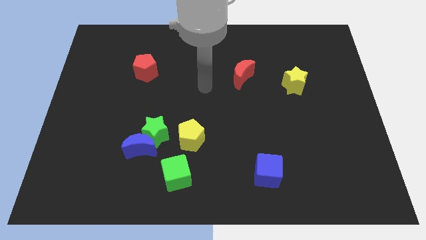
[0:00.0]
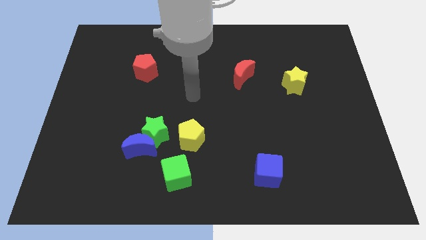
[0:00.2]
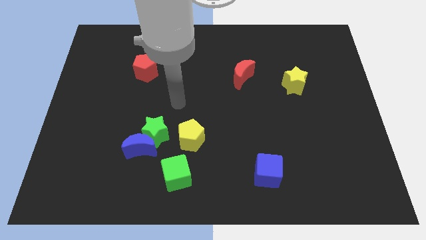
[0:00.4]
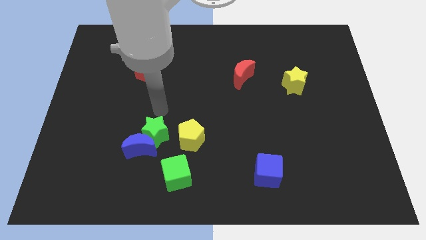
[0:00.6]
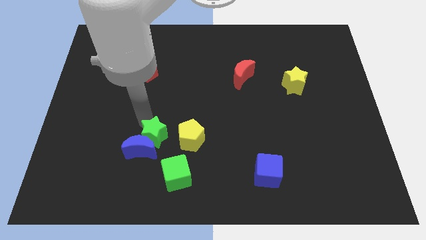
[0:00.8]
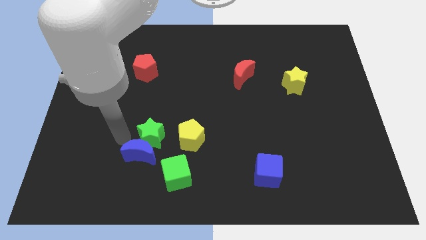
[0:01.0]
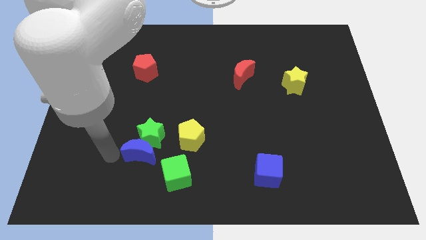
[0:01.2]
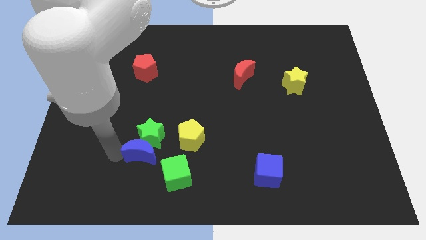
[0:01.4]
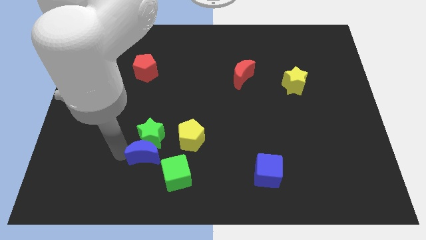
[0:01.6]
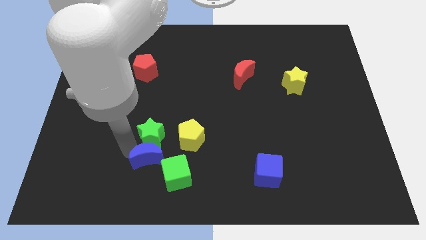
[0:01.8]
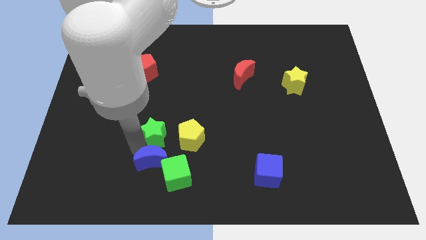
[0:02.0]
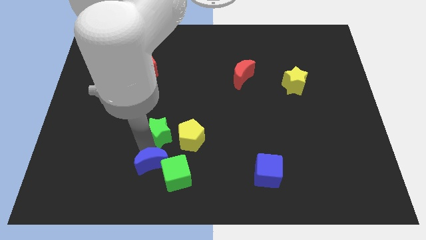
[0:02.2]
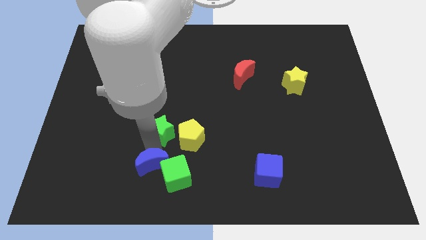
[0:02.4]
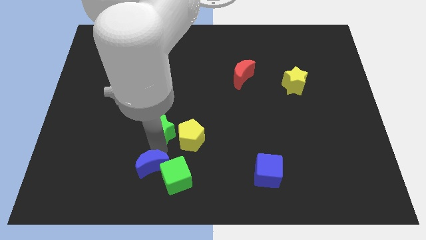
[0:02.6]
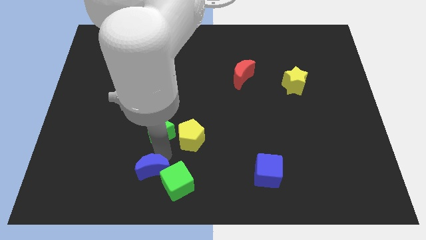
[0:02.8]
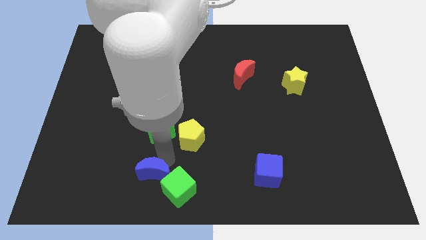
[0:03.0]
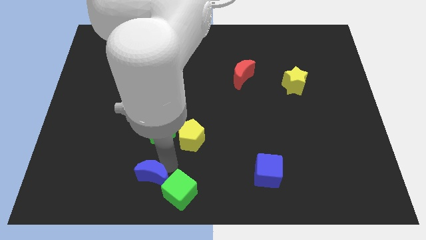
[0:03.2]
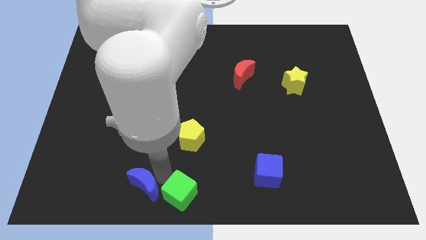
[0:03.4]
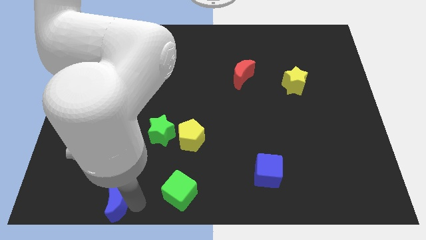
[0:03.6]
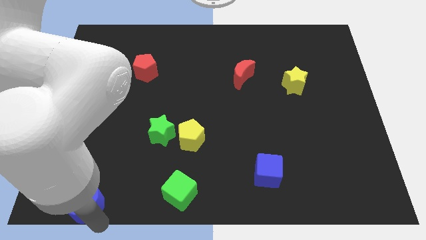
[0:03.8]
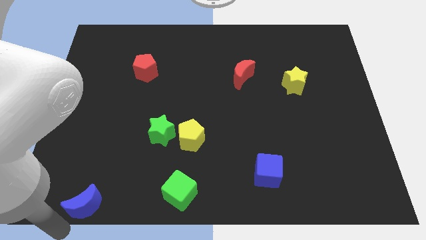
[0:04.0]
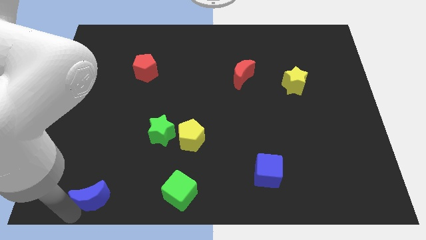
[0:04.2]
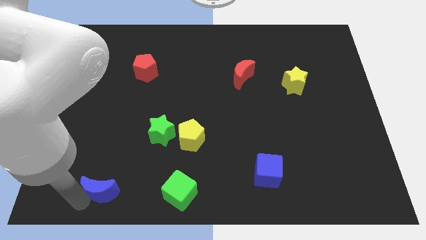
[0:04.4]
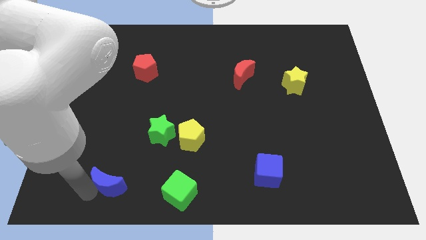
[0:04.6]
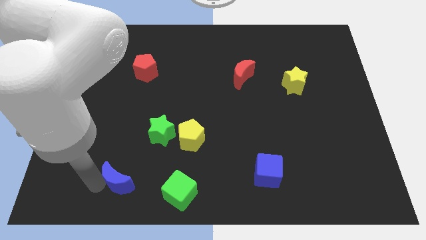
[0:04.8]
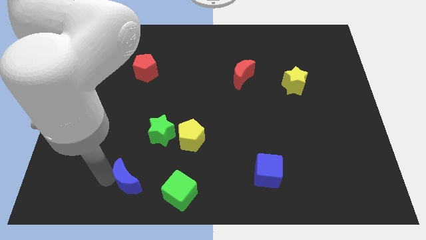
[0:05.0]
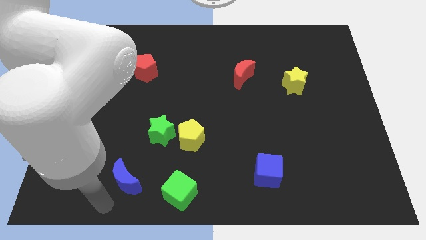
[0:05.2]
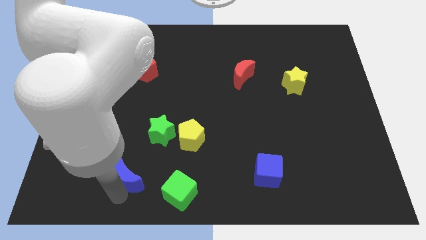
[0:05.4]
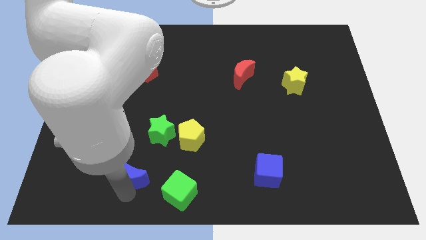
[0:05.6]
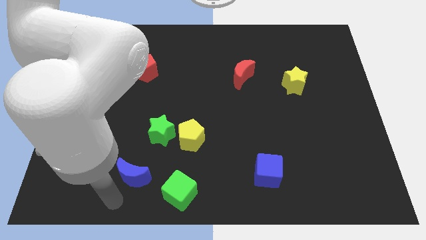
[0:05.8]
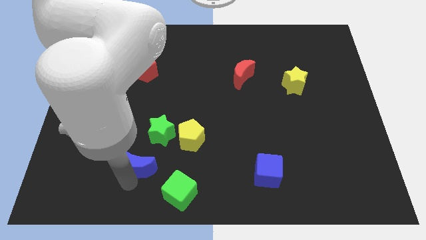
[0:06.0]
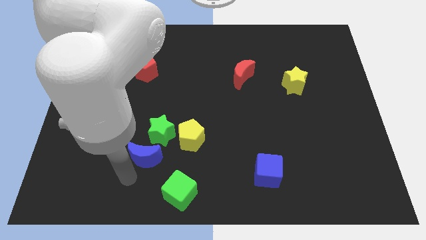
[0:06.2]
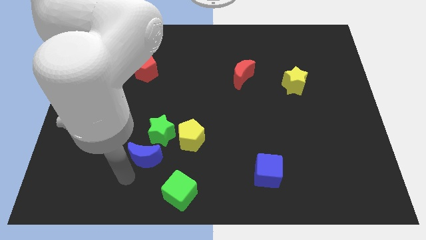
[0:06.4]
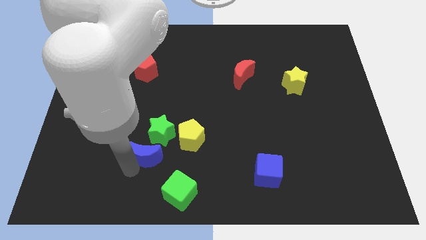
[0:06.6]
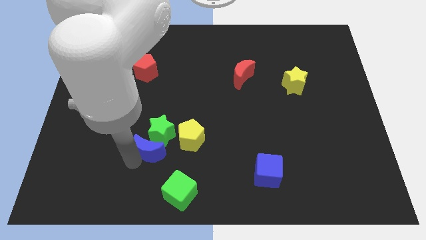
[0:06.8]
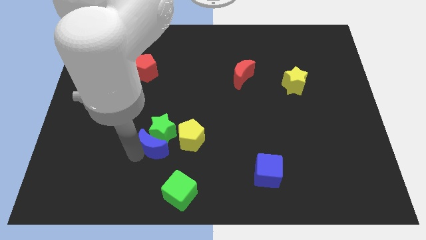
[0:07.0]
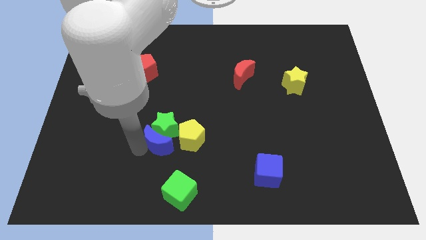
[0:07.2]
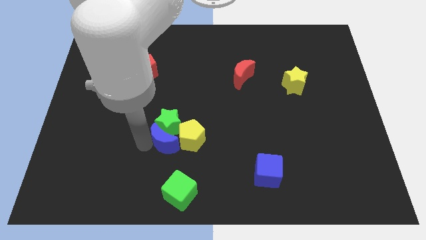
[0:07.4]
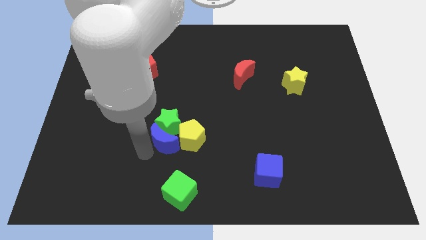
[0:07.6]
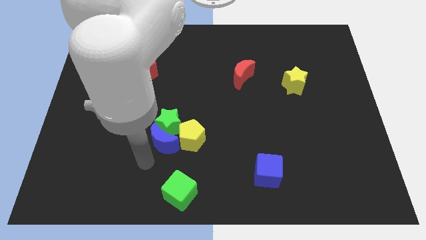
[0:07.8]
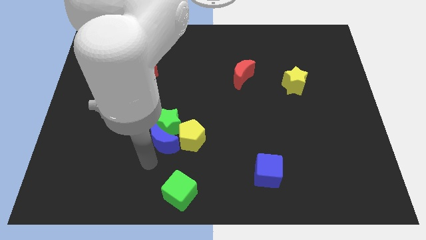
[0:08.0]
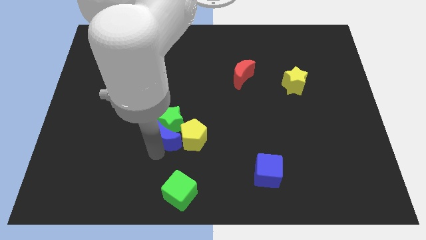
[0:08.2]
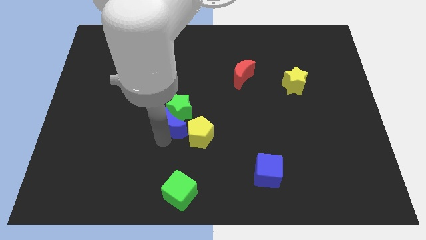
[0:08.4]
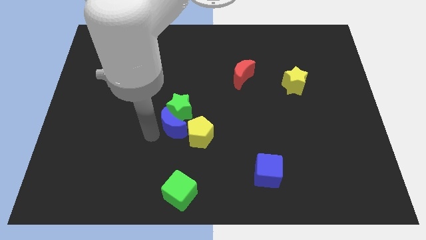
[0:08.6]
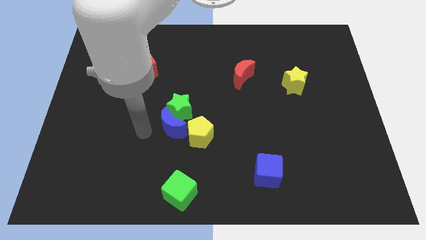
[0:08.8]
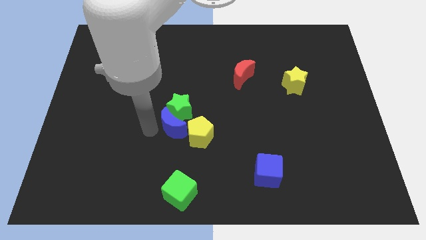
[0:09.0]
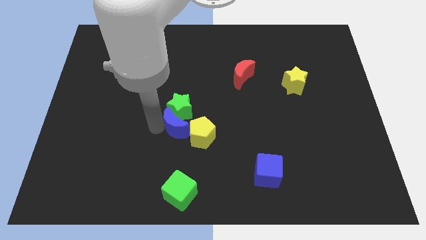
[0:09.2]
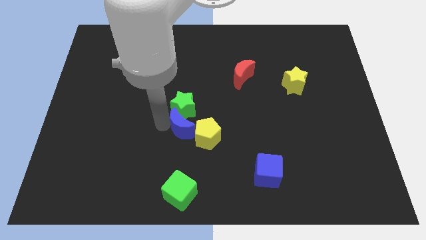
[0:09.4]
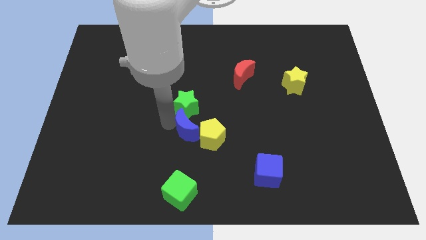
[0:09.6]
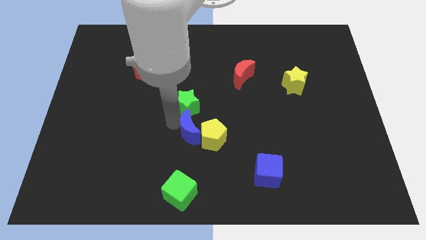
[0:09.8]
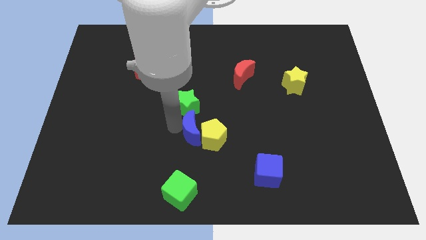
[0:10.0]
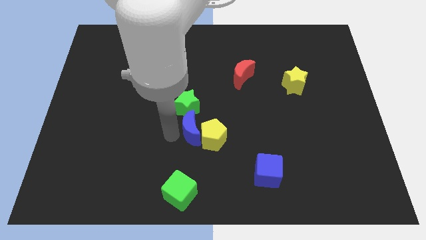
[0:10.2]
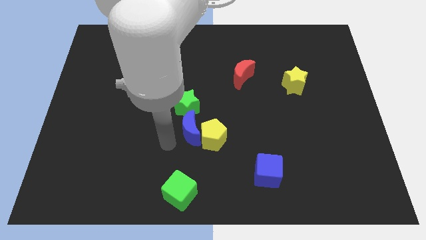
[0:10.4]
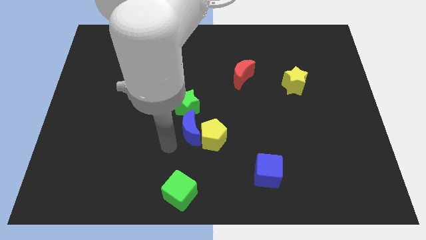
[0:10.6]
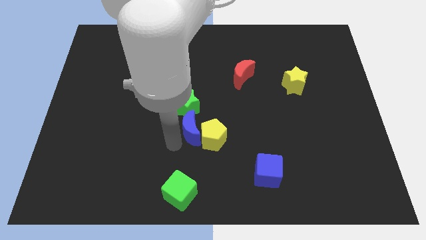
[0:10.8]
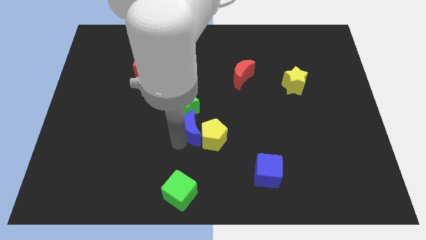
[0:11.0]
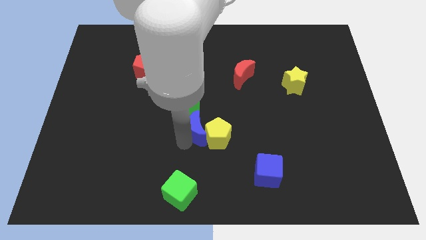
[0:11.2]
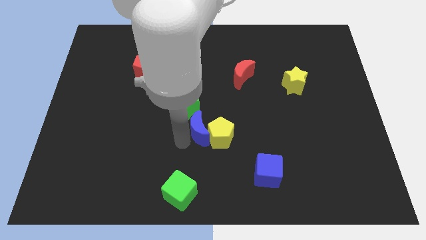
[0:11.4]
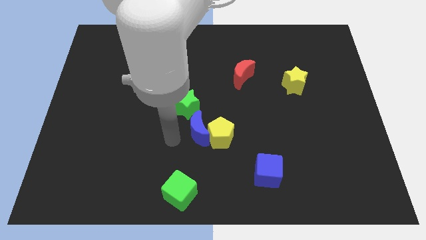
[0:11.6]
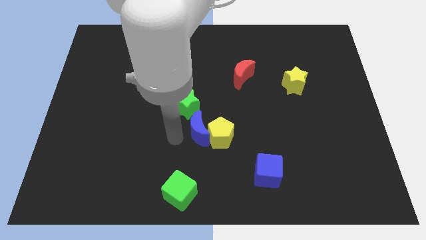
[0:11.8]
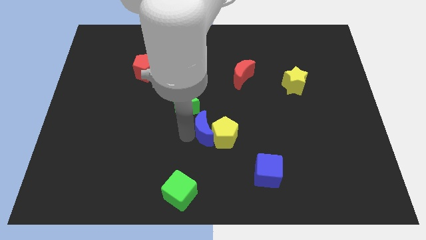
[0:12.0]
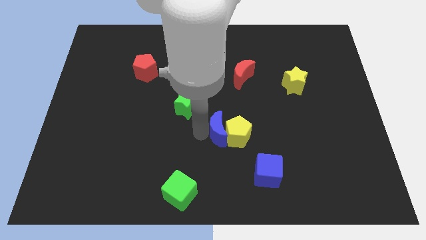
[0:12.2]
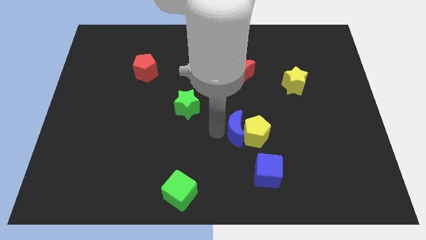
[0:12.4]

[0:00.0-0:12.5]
push the blue moon right

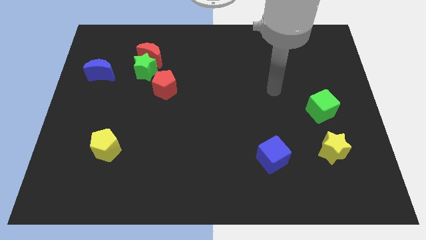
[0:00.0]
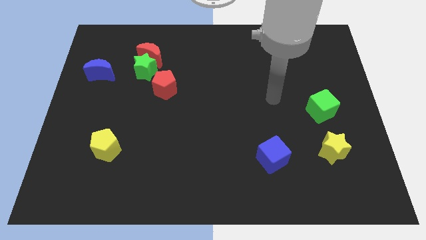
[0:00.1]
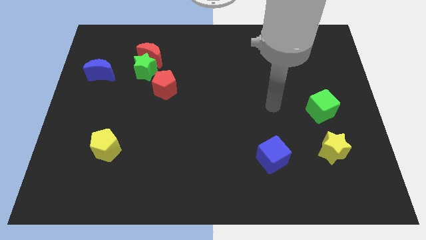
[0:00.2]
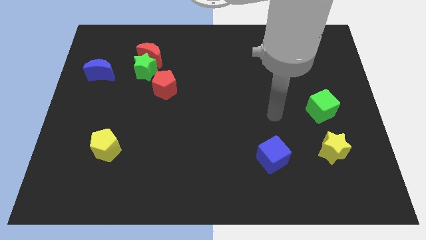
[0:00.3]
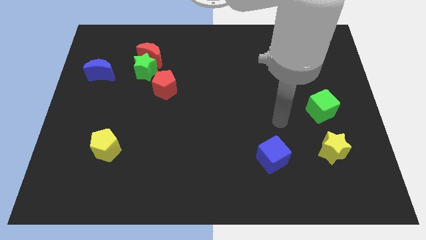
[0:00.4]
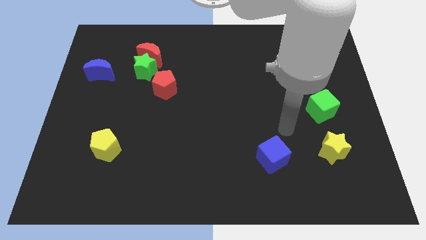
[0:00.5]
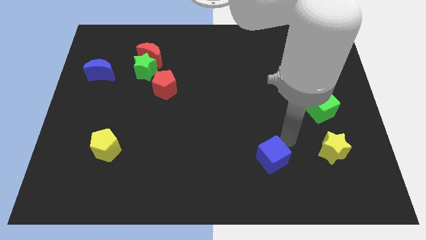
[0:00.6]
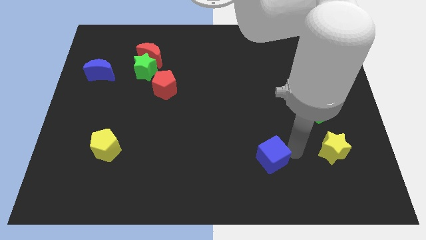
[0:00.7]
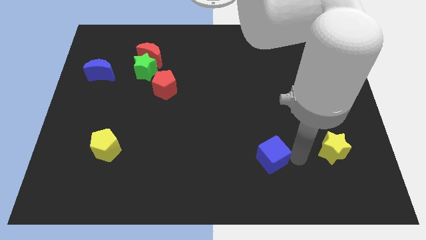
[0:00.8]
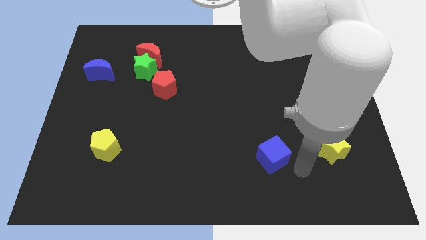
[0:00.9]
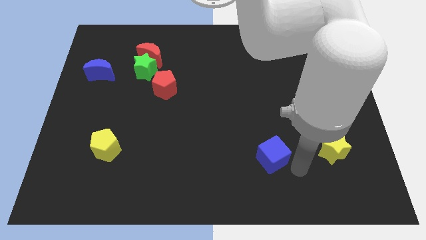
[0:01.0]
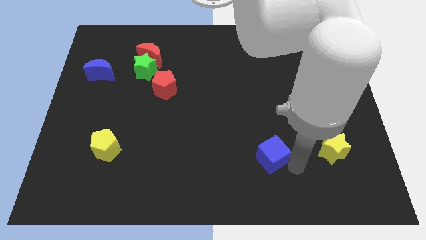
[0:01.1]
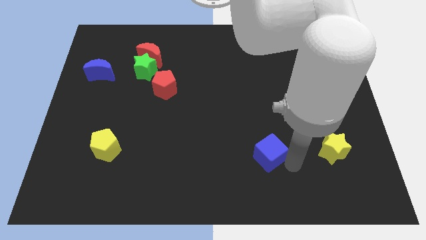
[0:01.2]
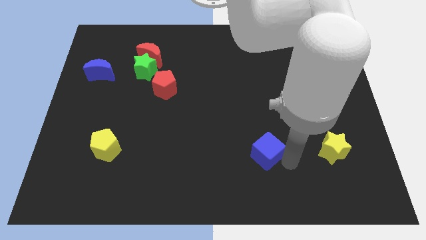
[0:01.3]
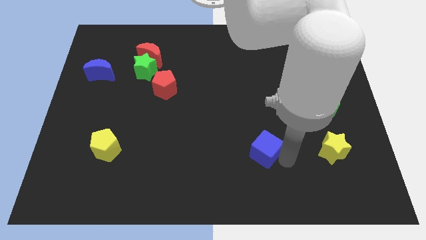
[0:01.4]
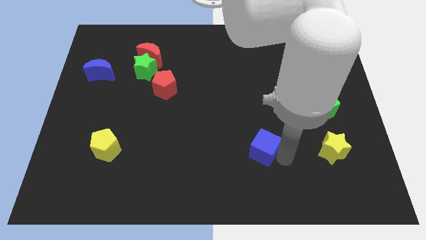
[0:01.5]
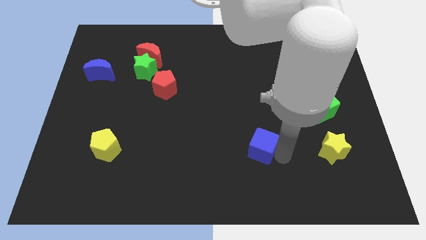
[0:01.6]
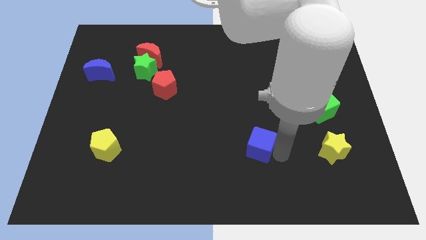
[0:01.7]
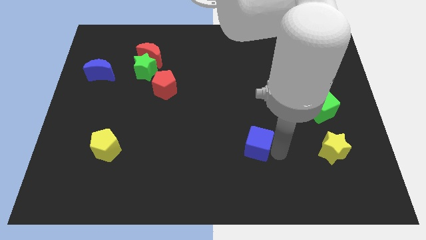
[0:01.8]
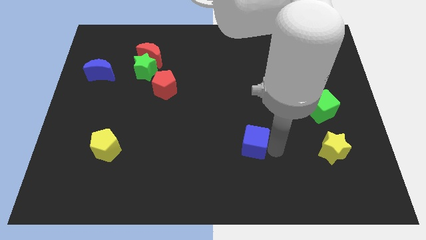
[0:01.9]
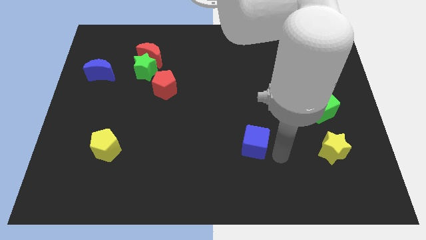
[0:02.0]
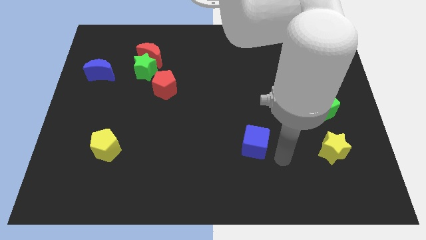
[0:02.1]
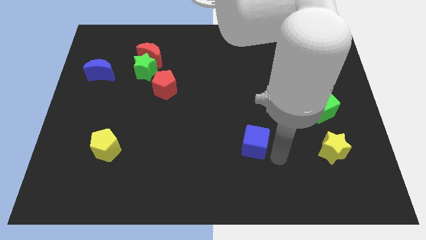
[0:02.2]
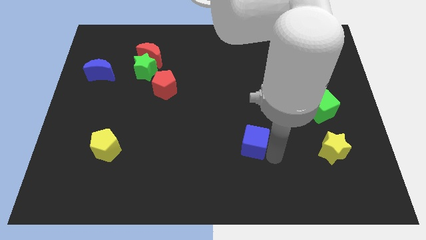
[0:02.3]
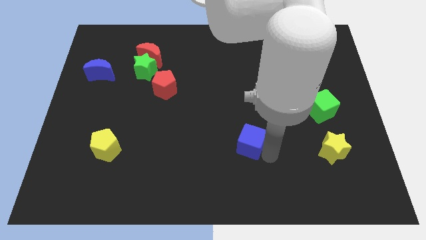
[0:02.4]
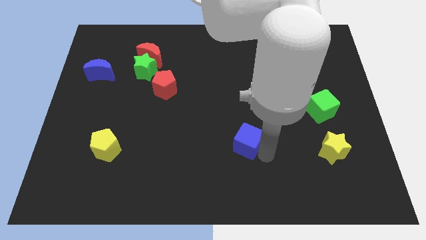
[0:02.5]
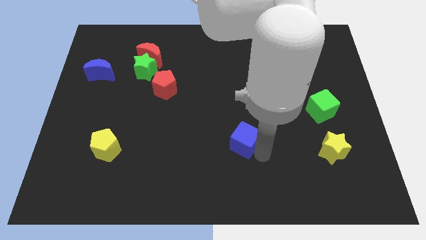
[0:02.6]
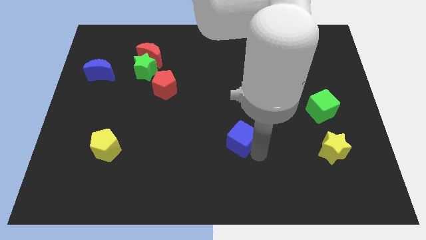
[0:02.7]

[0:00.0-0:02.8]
slightly push the blue cube upwards and left diagonally
